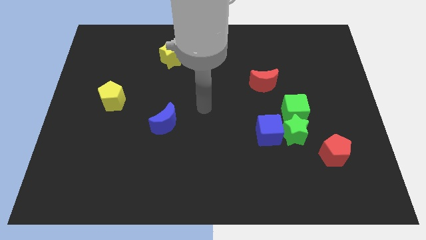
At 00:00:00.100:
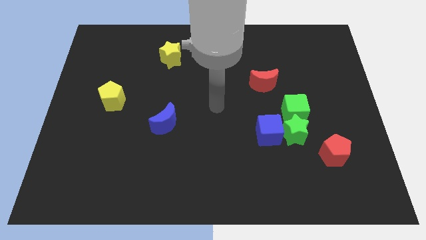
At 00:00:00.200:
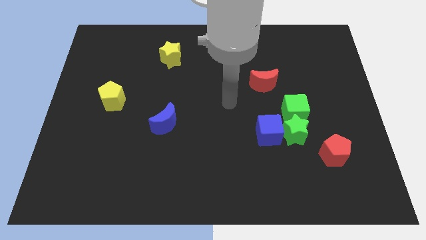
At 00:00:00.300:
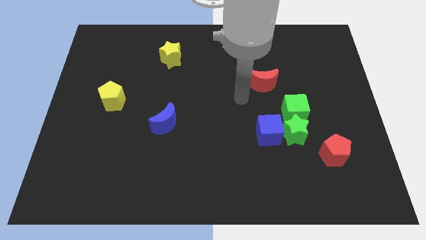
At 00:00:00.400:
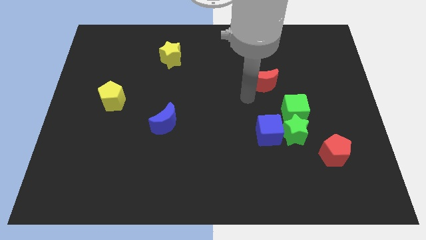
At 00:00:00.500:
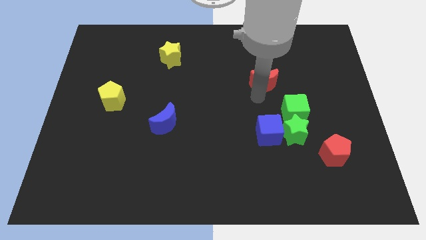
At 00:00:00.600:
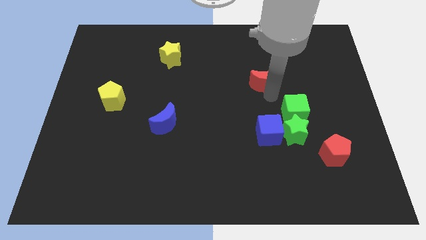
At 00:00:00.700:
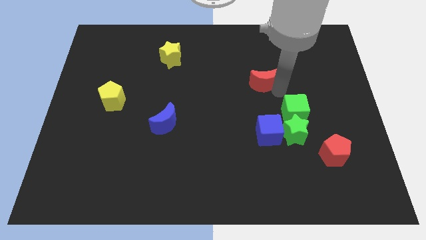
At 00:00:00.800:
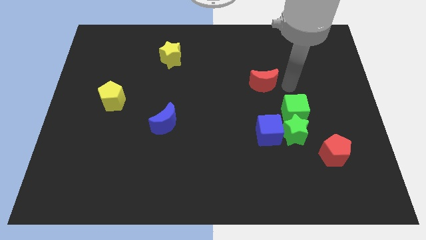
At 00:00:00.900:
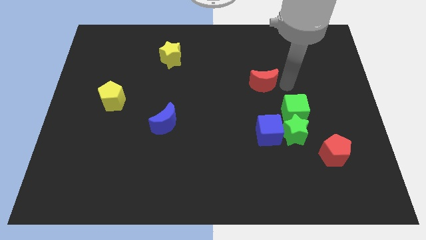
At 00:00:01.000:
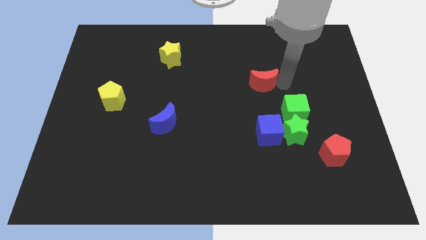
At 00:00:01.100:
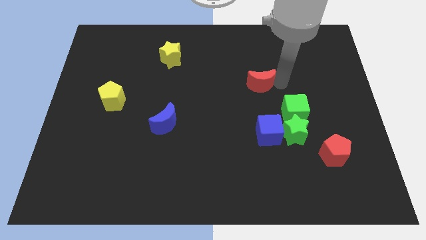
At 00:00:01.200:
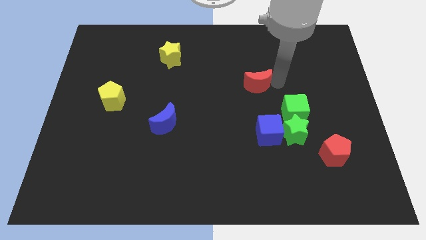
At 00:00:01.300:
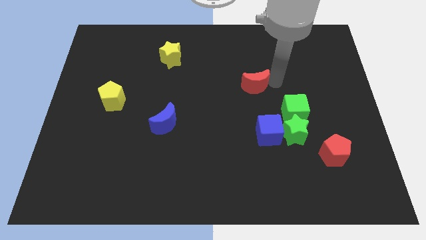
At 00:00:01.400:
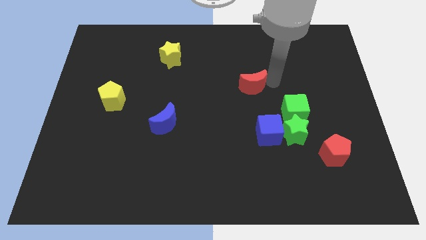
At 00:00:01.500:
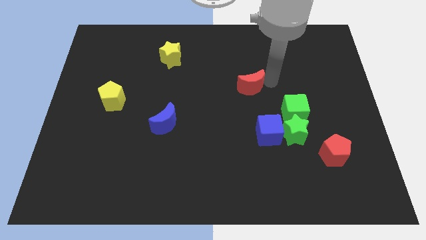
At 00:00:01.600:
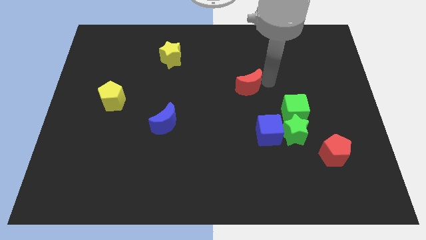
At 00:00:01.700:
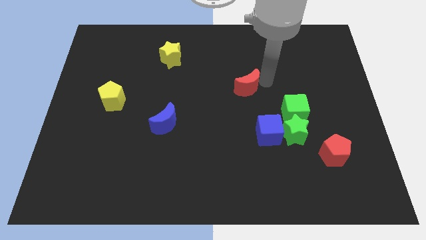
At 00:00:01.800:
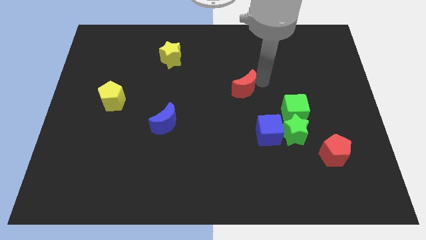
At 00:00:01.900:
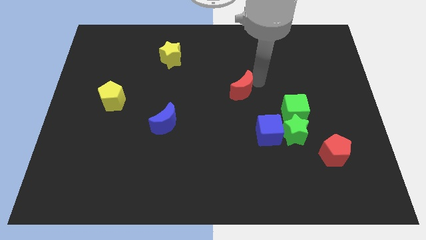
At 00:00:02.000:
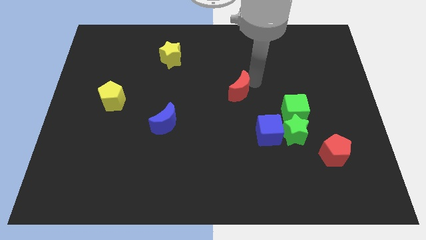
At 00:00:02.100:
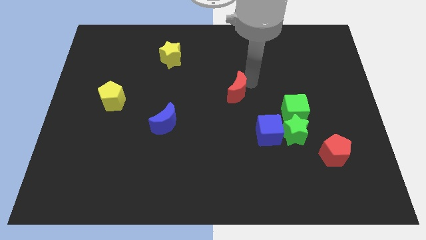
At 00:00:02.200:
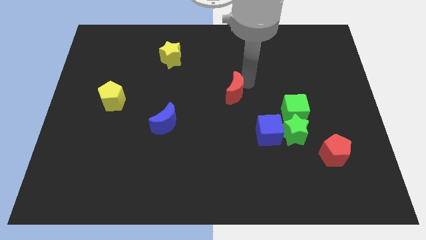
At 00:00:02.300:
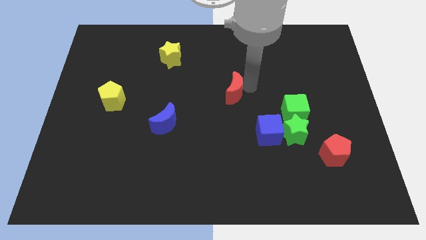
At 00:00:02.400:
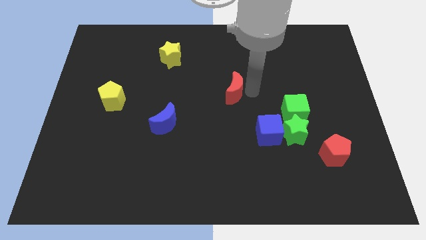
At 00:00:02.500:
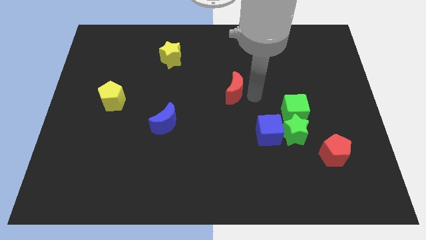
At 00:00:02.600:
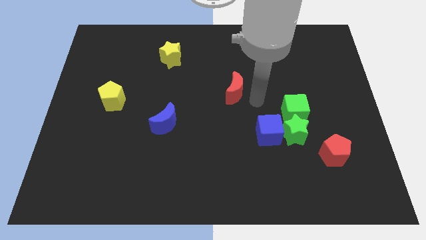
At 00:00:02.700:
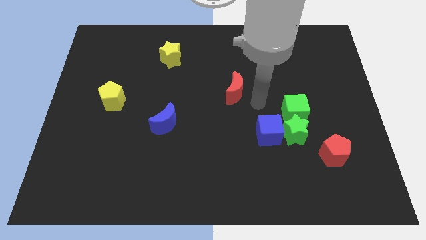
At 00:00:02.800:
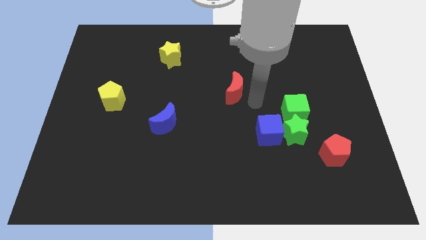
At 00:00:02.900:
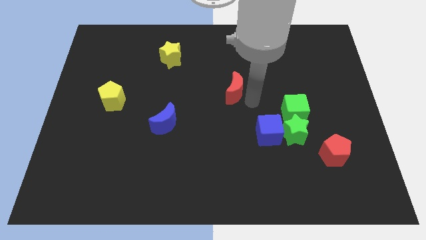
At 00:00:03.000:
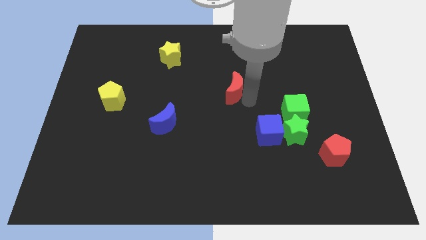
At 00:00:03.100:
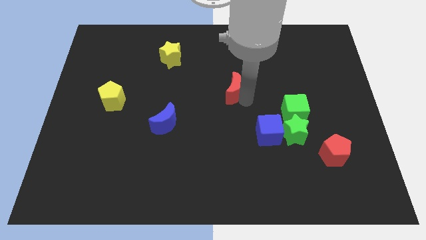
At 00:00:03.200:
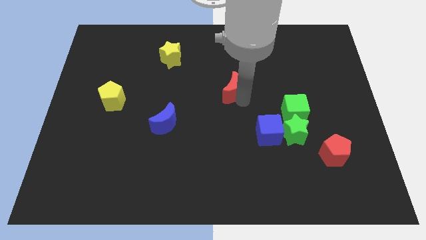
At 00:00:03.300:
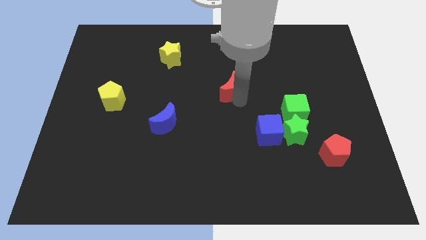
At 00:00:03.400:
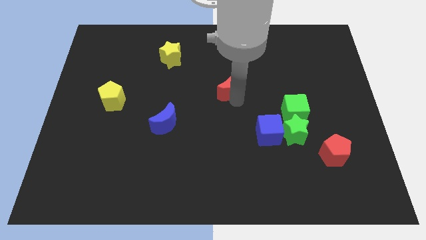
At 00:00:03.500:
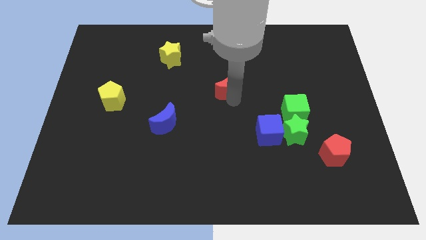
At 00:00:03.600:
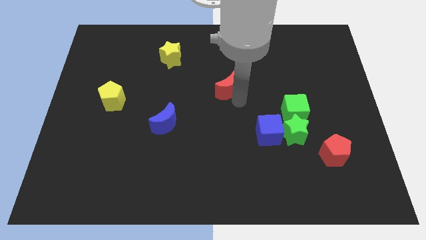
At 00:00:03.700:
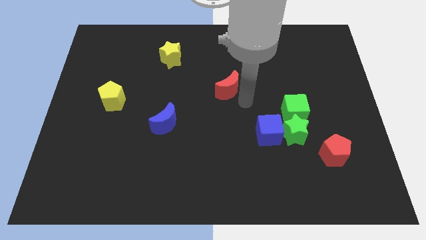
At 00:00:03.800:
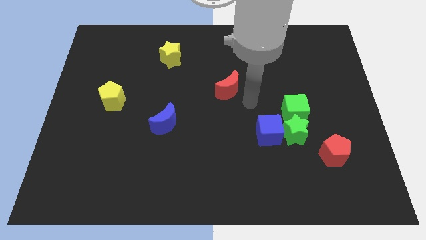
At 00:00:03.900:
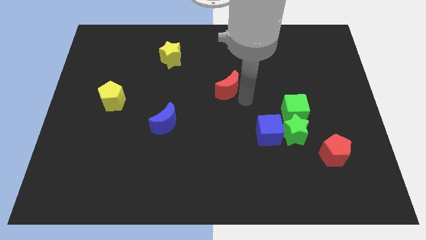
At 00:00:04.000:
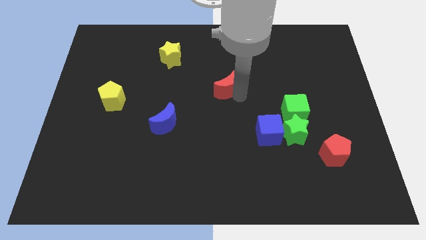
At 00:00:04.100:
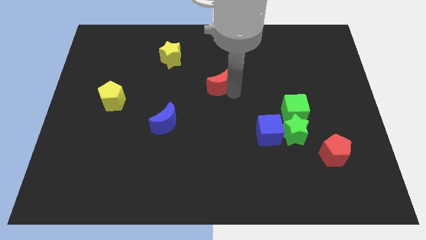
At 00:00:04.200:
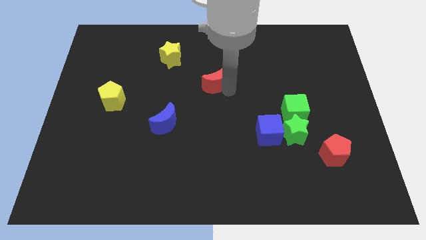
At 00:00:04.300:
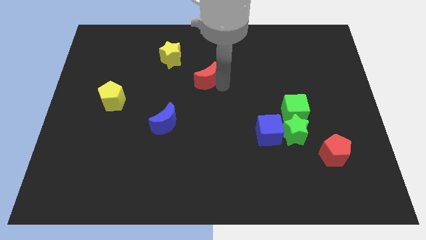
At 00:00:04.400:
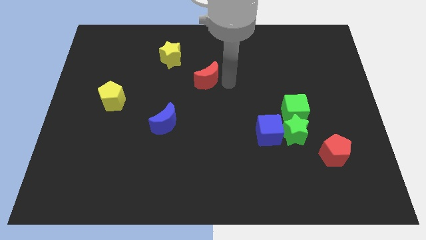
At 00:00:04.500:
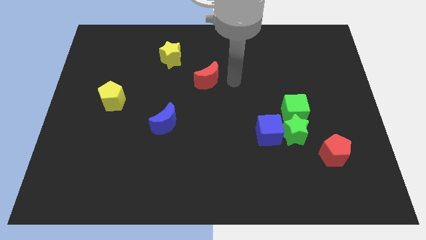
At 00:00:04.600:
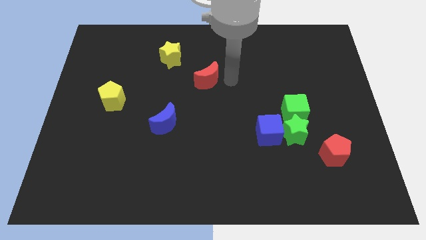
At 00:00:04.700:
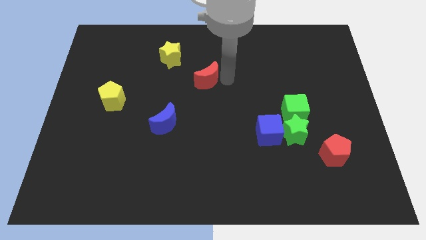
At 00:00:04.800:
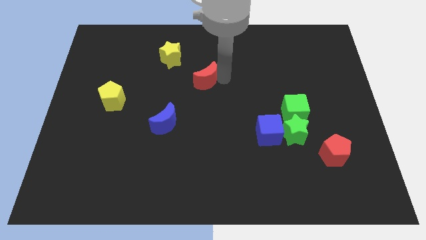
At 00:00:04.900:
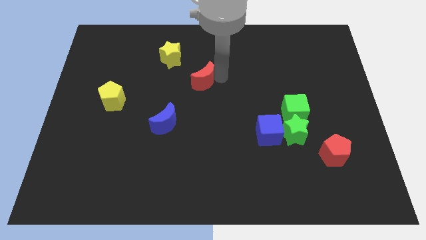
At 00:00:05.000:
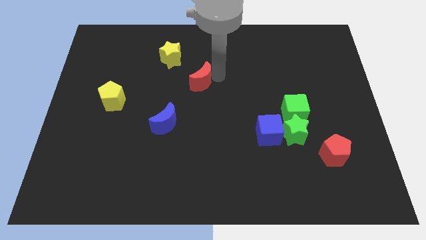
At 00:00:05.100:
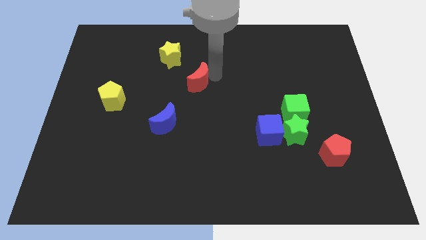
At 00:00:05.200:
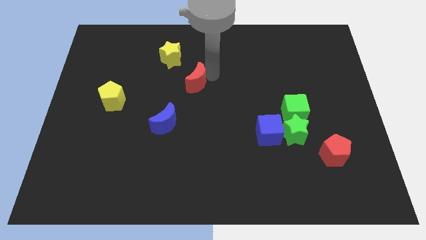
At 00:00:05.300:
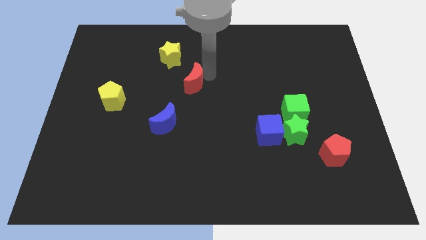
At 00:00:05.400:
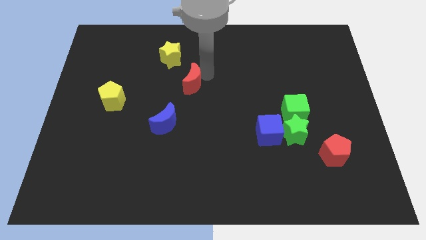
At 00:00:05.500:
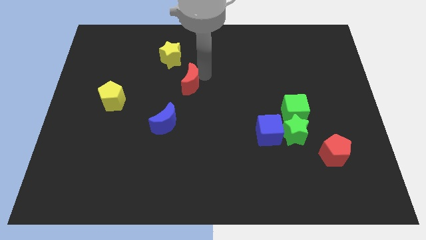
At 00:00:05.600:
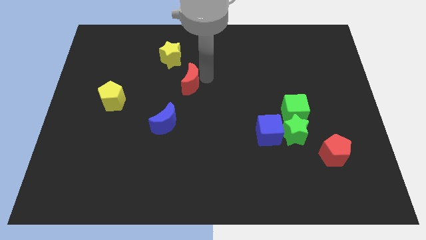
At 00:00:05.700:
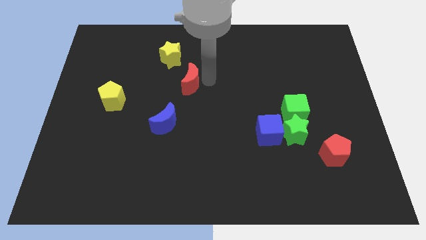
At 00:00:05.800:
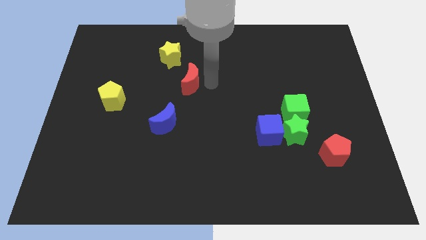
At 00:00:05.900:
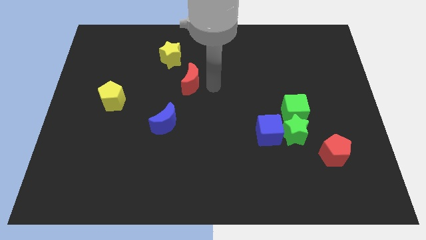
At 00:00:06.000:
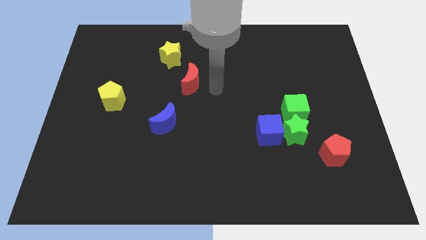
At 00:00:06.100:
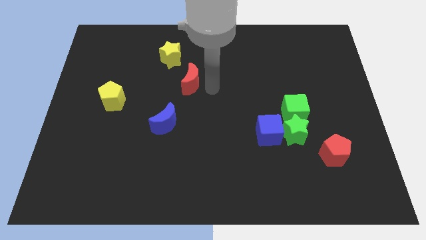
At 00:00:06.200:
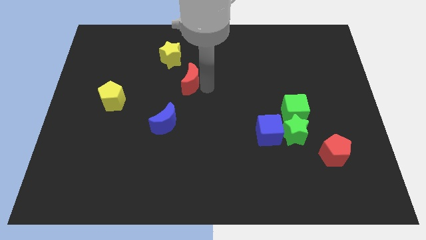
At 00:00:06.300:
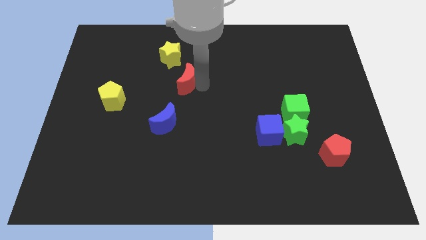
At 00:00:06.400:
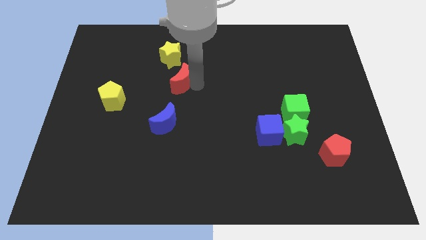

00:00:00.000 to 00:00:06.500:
move the red moon to the left

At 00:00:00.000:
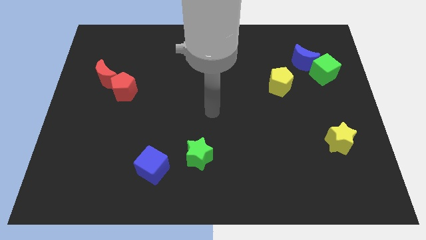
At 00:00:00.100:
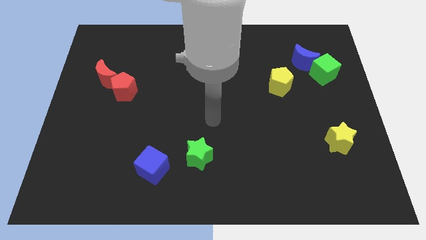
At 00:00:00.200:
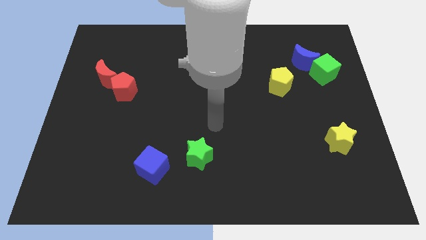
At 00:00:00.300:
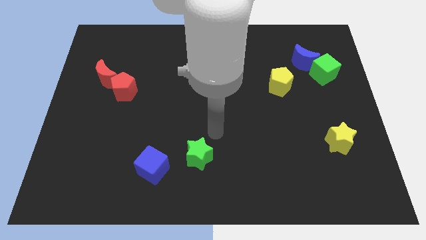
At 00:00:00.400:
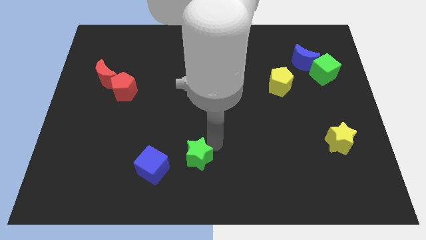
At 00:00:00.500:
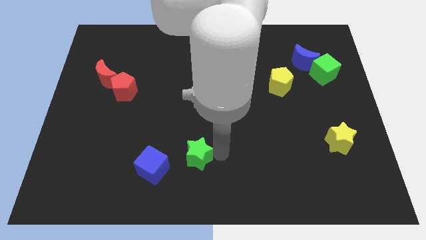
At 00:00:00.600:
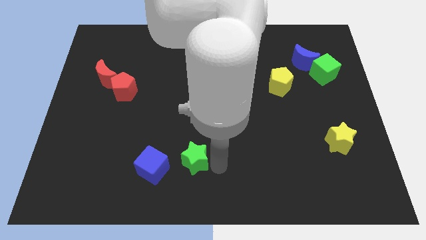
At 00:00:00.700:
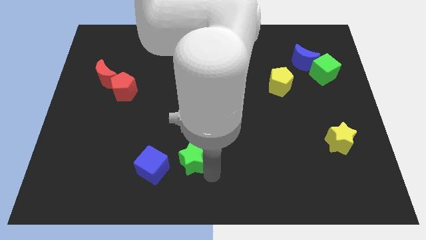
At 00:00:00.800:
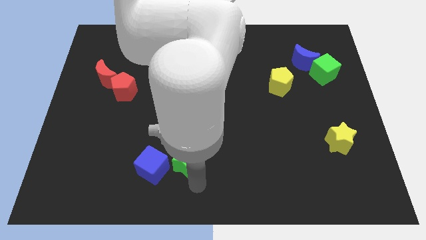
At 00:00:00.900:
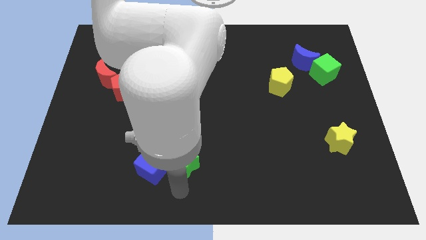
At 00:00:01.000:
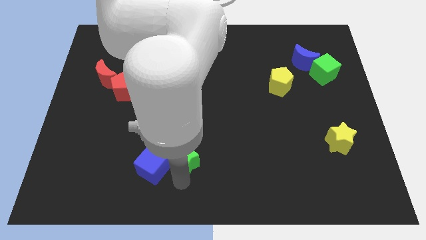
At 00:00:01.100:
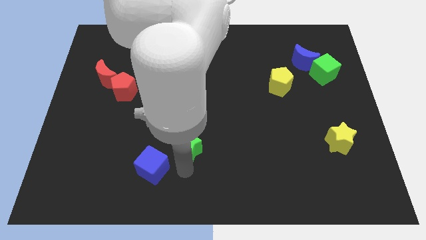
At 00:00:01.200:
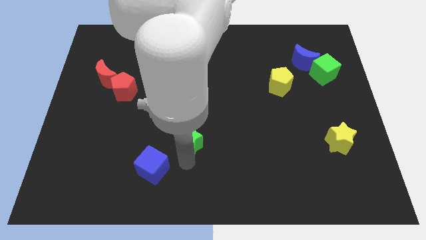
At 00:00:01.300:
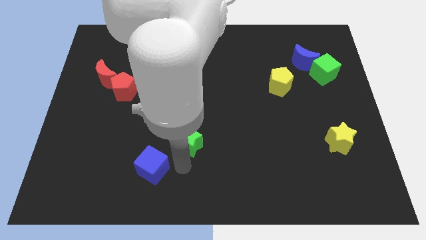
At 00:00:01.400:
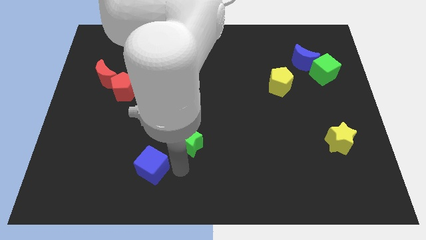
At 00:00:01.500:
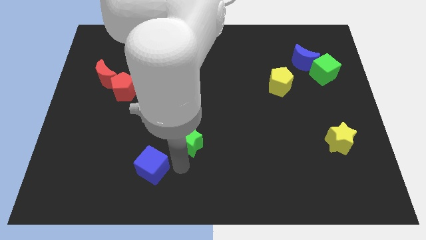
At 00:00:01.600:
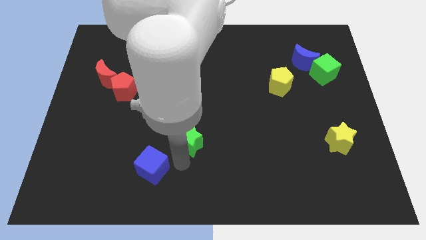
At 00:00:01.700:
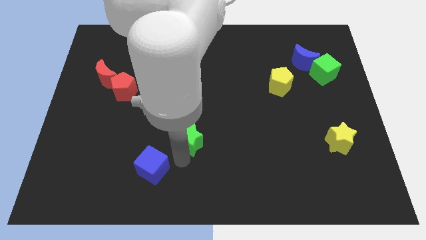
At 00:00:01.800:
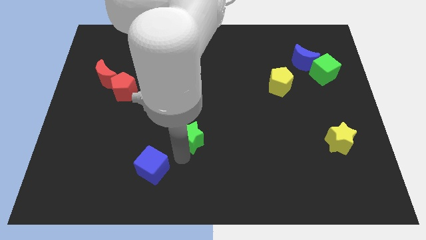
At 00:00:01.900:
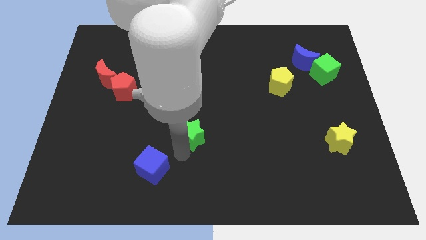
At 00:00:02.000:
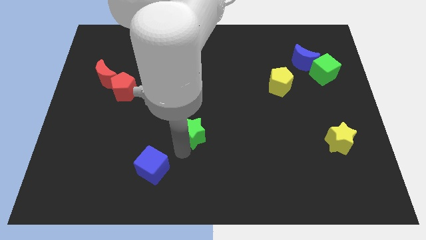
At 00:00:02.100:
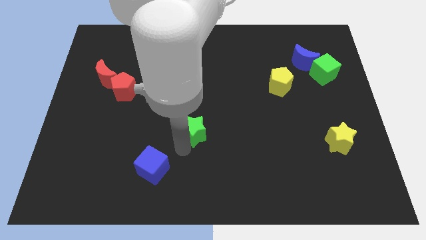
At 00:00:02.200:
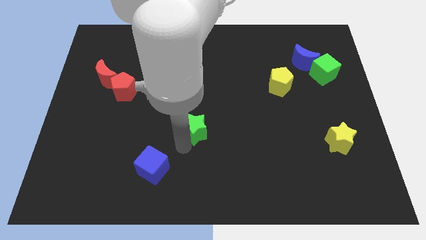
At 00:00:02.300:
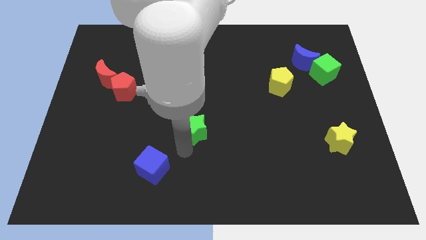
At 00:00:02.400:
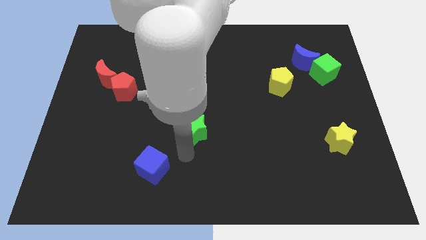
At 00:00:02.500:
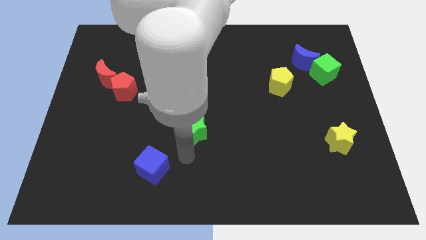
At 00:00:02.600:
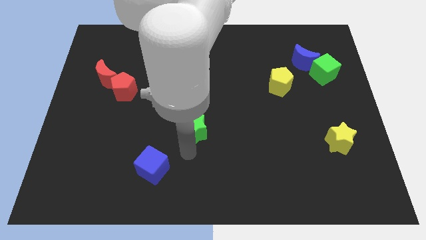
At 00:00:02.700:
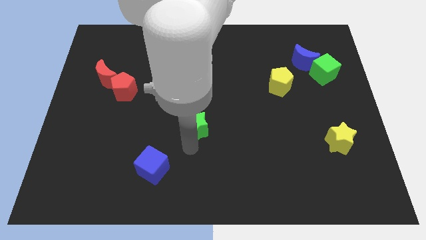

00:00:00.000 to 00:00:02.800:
slide the green star somewhat upwards
